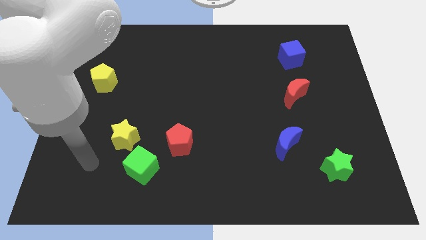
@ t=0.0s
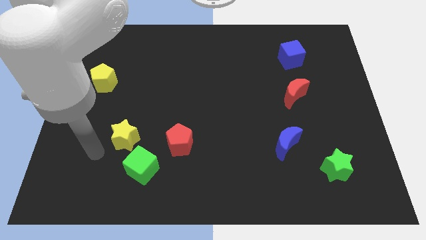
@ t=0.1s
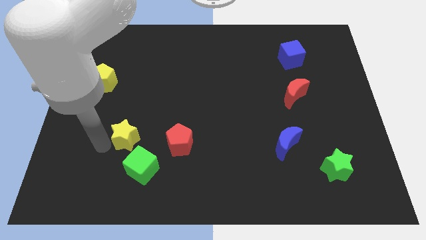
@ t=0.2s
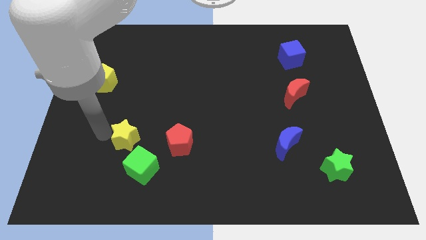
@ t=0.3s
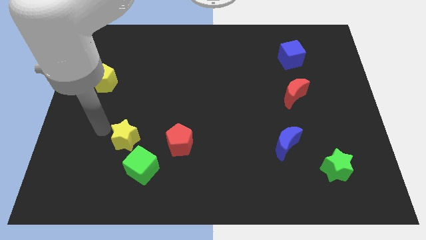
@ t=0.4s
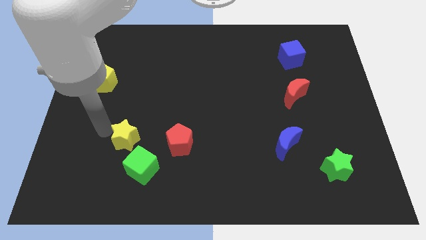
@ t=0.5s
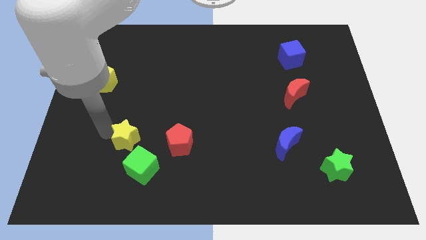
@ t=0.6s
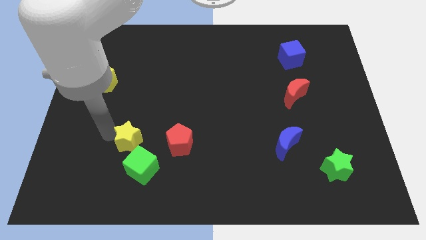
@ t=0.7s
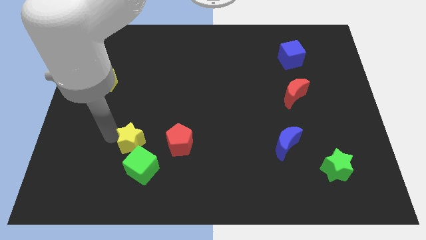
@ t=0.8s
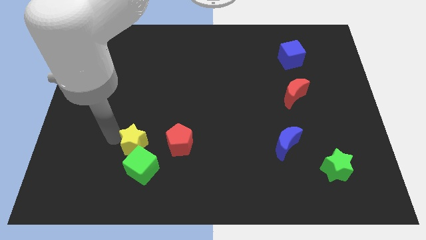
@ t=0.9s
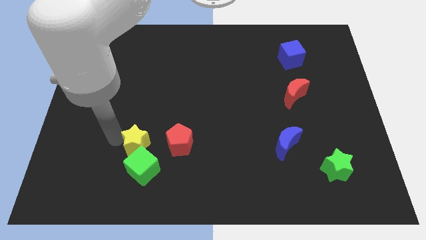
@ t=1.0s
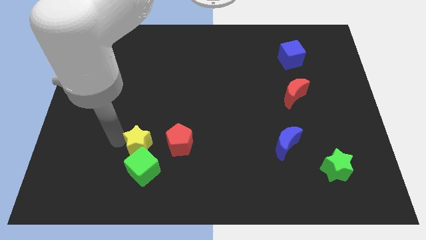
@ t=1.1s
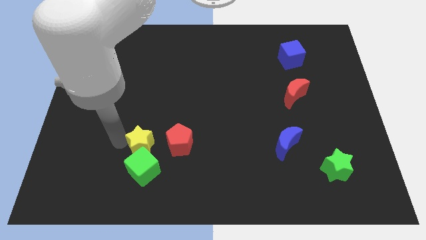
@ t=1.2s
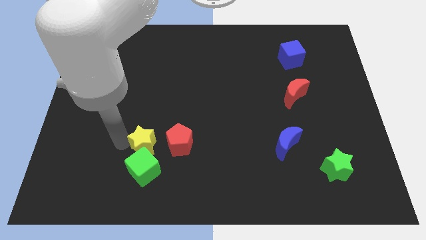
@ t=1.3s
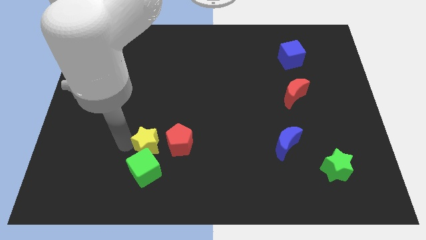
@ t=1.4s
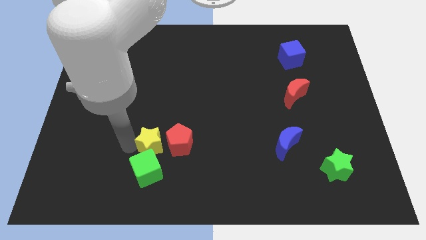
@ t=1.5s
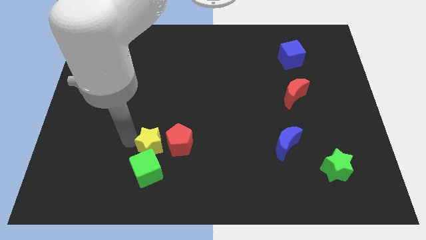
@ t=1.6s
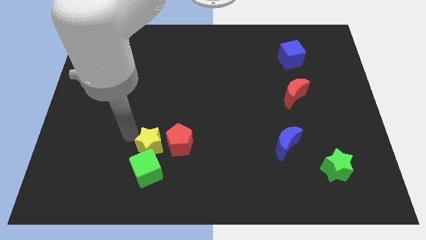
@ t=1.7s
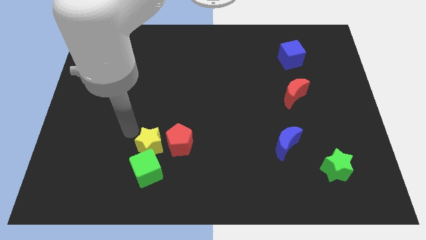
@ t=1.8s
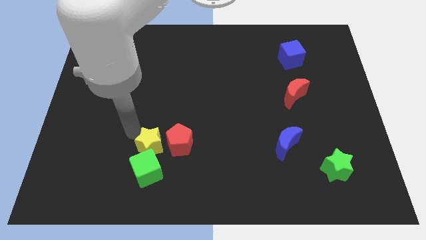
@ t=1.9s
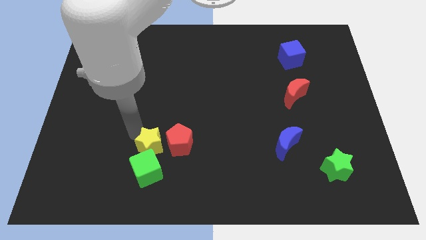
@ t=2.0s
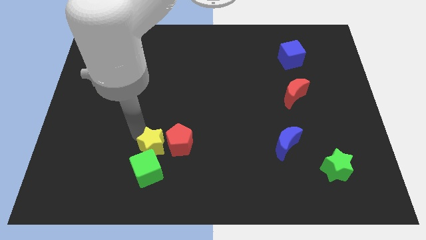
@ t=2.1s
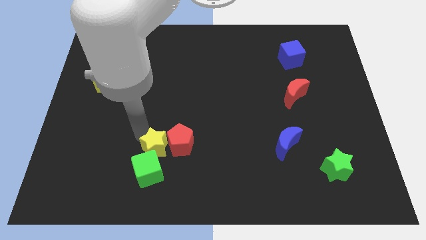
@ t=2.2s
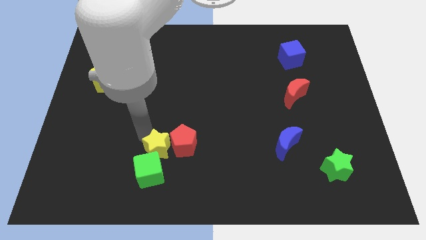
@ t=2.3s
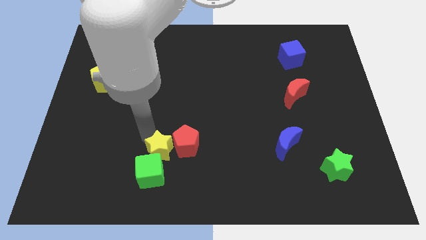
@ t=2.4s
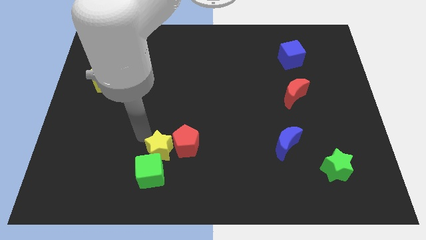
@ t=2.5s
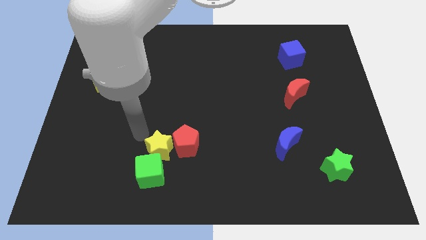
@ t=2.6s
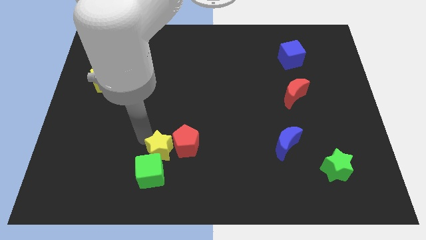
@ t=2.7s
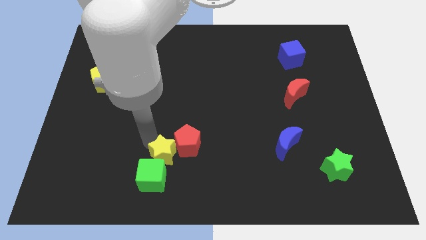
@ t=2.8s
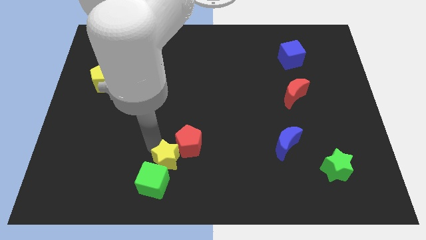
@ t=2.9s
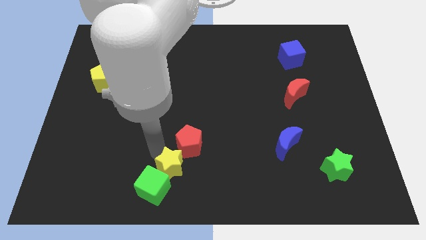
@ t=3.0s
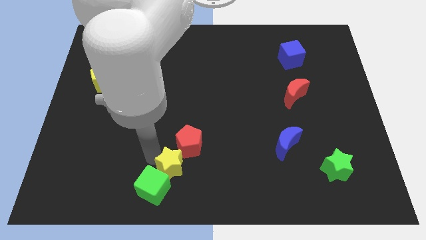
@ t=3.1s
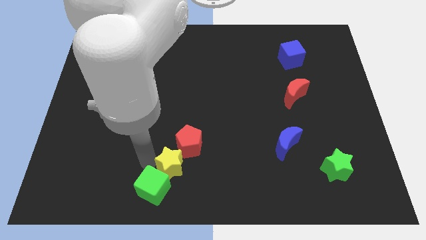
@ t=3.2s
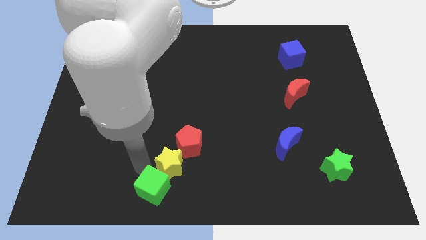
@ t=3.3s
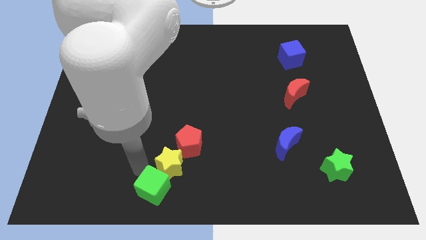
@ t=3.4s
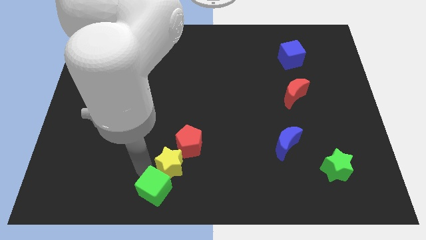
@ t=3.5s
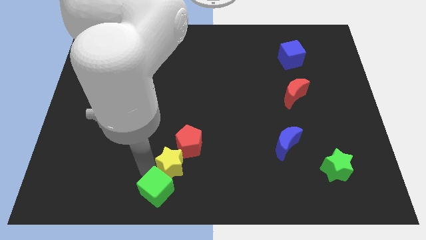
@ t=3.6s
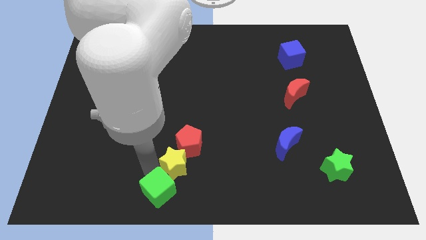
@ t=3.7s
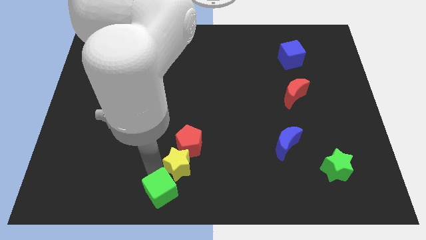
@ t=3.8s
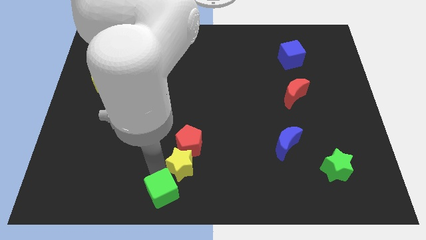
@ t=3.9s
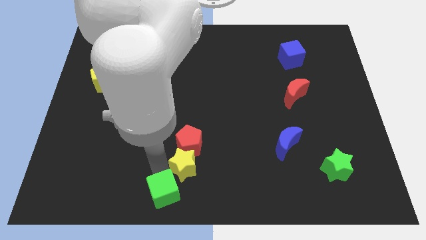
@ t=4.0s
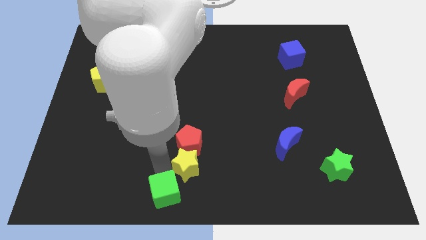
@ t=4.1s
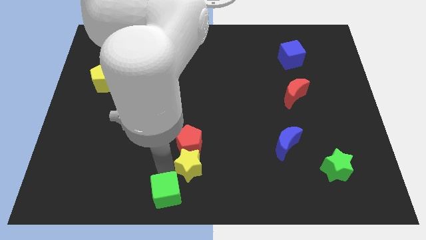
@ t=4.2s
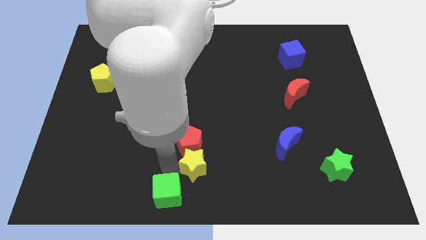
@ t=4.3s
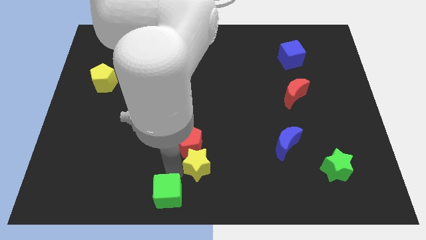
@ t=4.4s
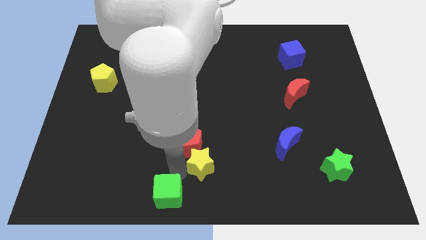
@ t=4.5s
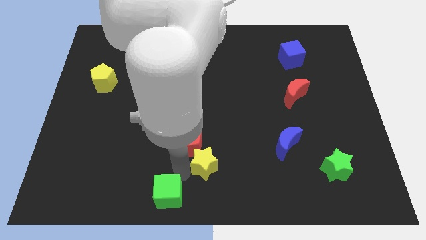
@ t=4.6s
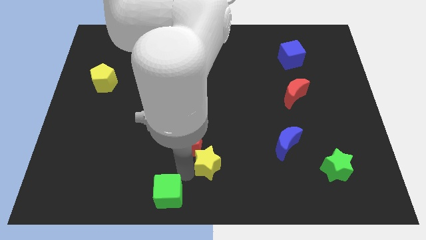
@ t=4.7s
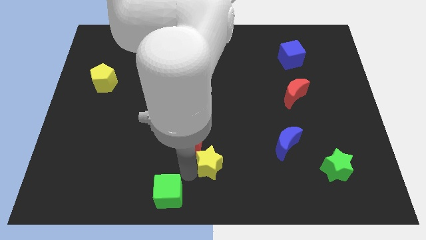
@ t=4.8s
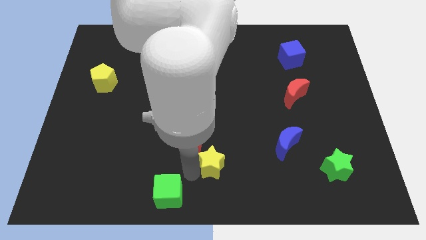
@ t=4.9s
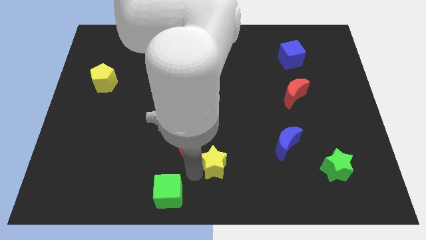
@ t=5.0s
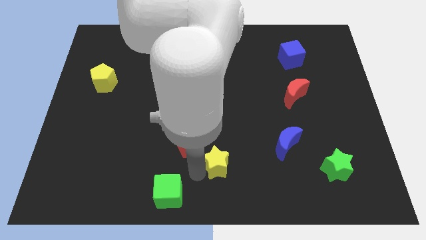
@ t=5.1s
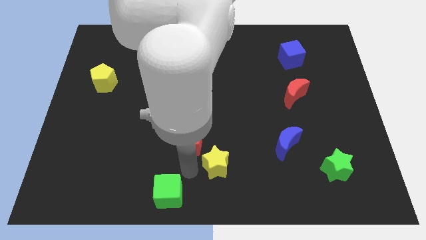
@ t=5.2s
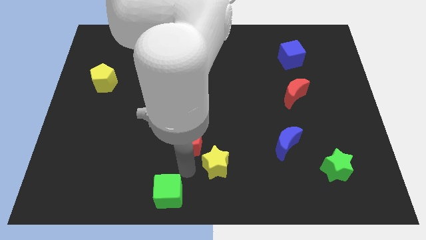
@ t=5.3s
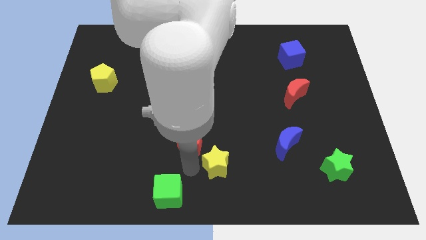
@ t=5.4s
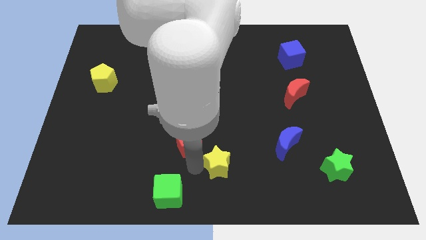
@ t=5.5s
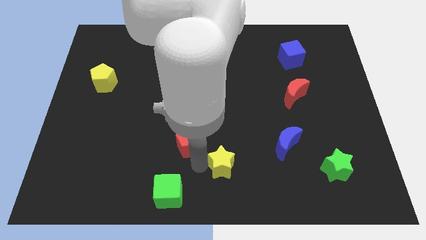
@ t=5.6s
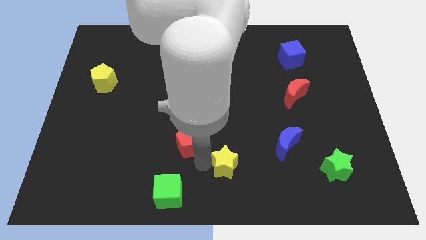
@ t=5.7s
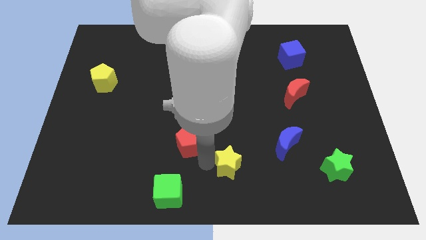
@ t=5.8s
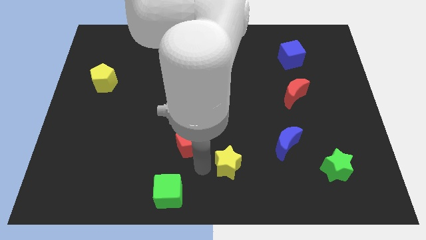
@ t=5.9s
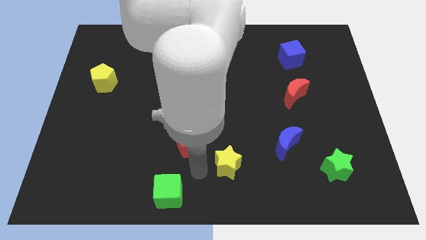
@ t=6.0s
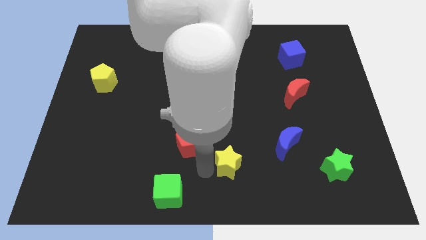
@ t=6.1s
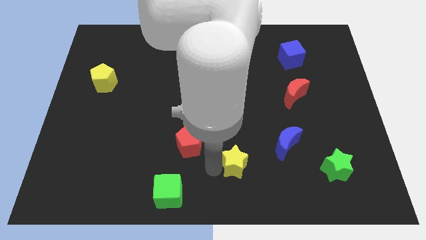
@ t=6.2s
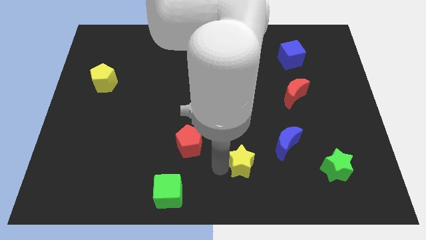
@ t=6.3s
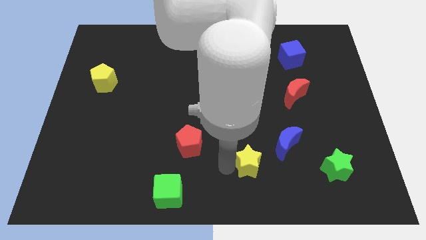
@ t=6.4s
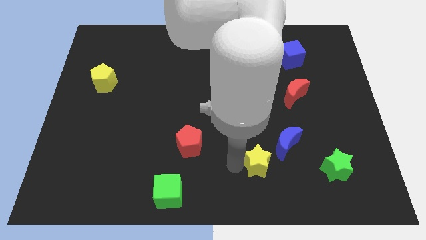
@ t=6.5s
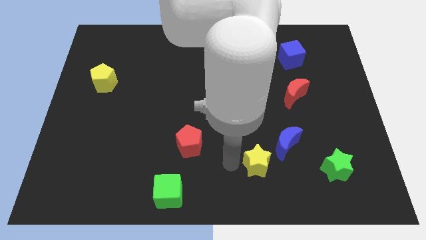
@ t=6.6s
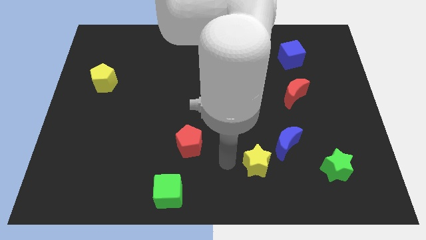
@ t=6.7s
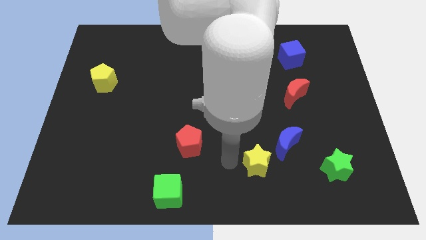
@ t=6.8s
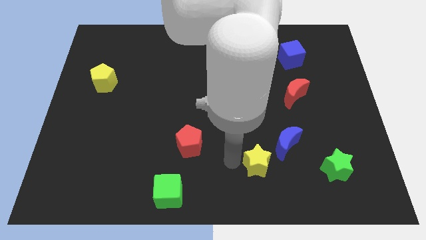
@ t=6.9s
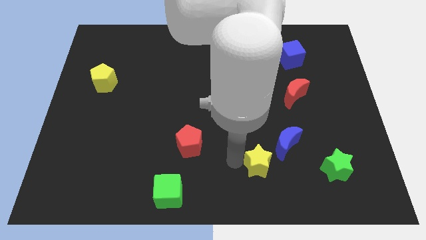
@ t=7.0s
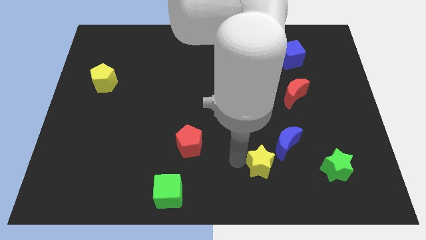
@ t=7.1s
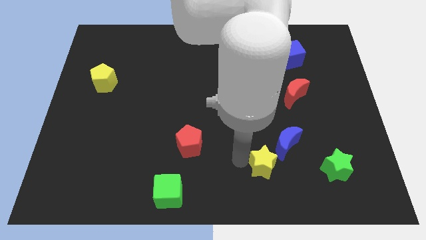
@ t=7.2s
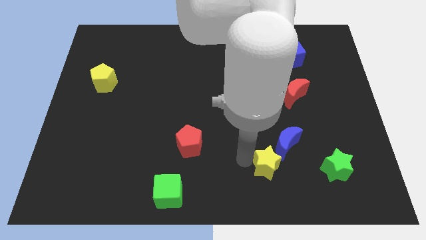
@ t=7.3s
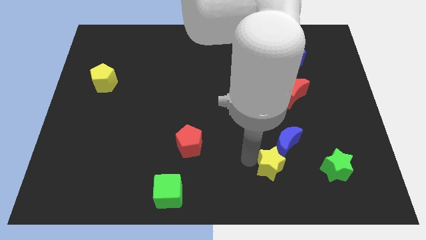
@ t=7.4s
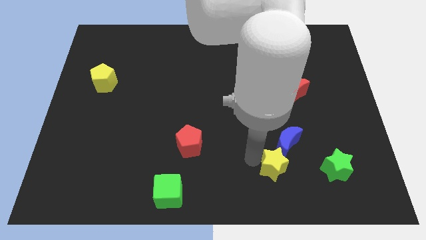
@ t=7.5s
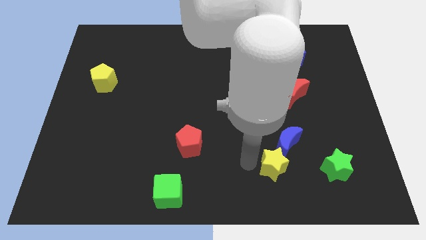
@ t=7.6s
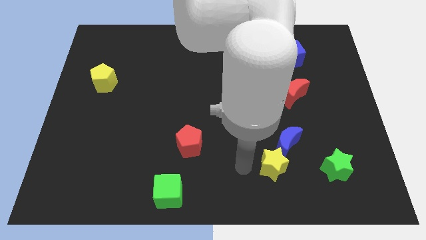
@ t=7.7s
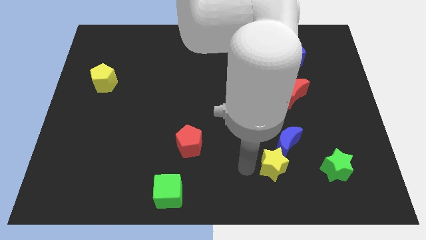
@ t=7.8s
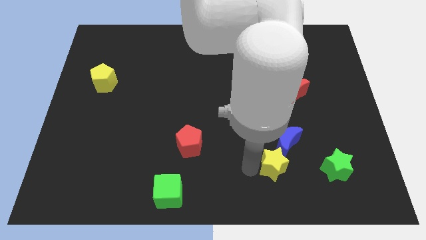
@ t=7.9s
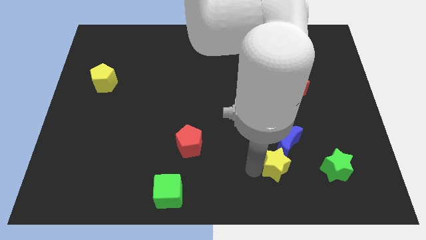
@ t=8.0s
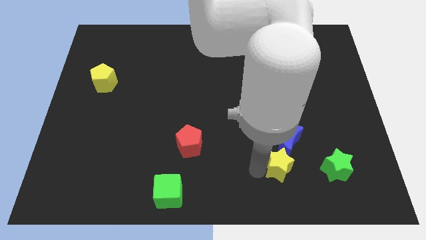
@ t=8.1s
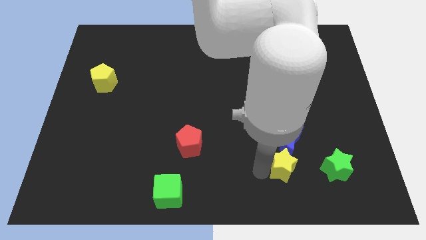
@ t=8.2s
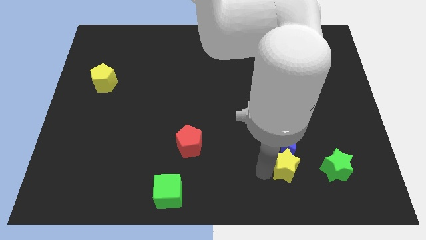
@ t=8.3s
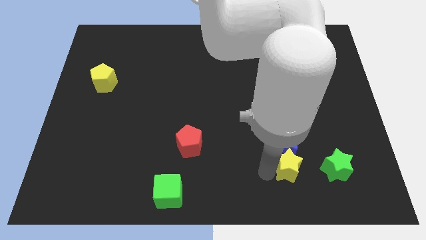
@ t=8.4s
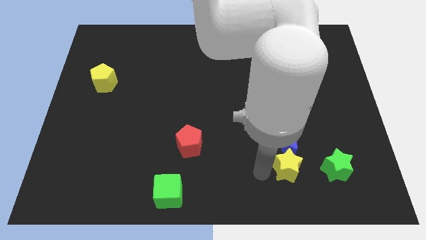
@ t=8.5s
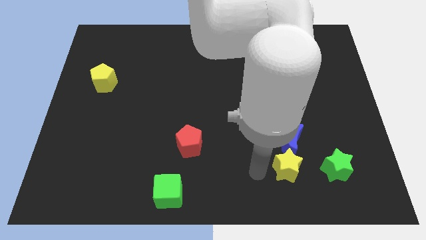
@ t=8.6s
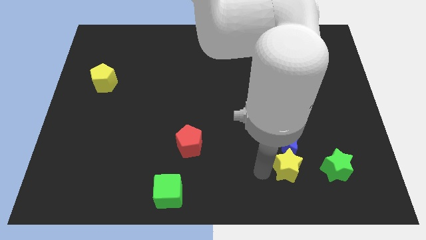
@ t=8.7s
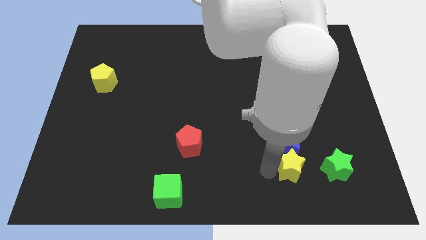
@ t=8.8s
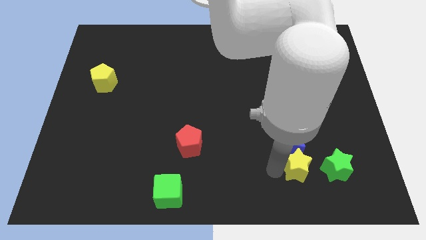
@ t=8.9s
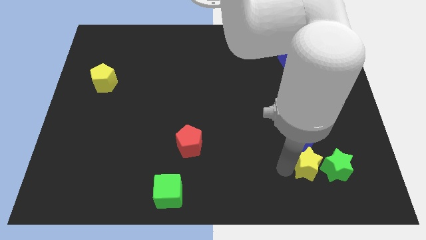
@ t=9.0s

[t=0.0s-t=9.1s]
put the yellow star towards the green star
